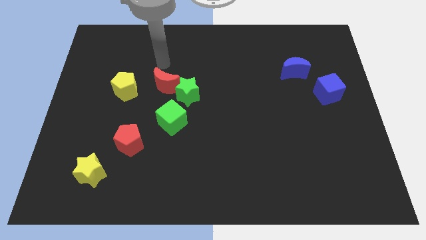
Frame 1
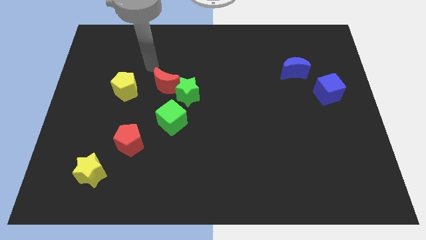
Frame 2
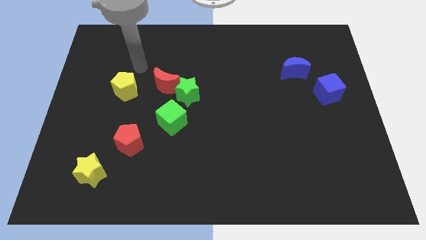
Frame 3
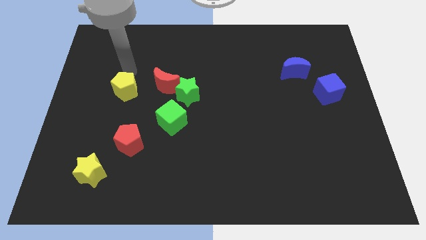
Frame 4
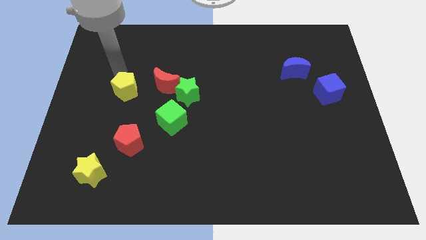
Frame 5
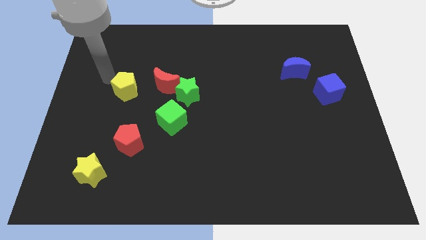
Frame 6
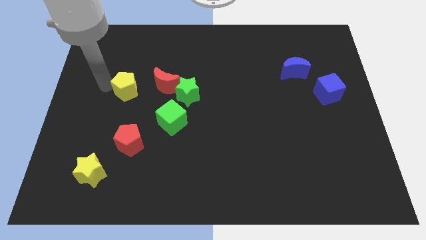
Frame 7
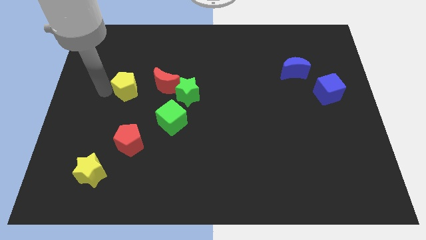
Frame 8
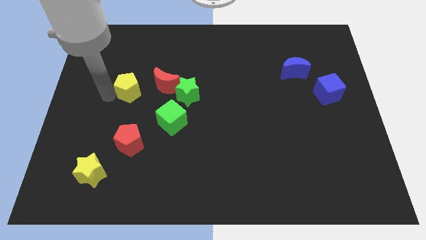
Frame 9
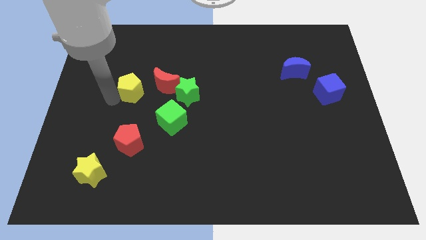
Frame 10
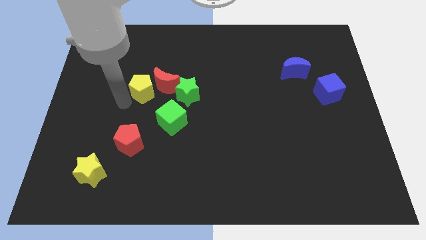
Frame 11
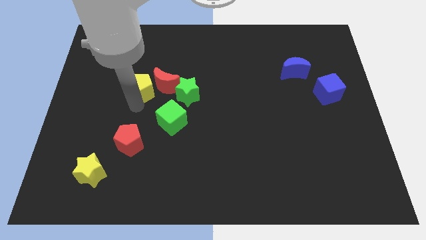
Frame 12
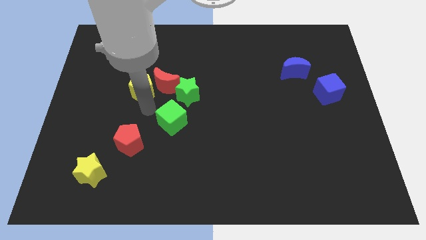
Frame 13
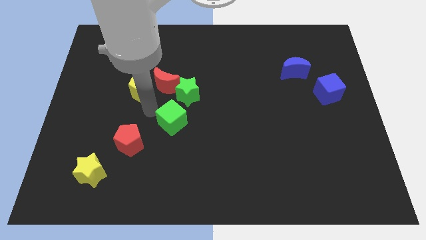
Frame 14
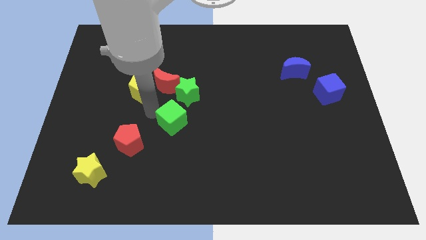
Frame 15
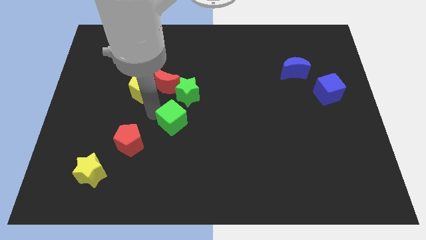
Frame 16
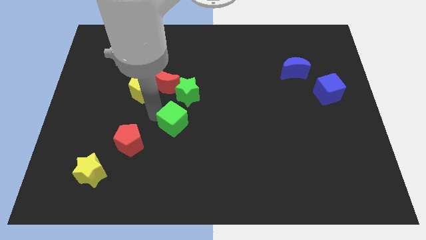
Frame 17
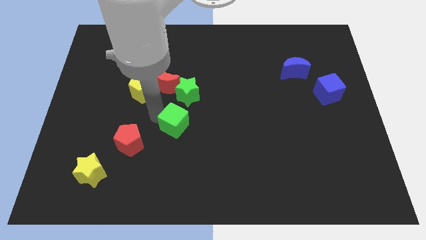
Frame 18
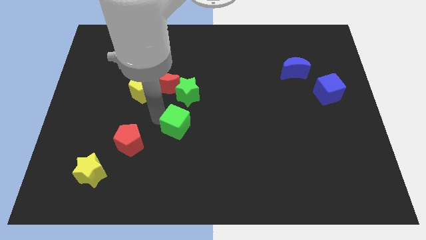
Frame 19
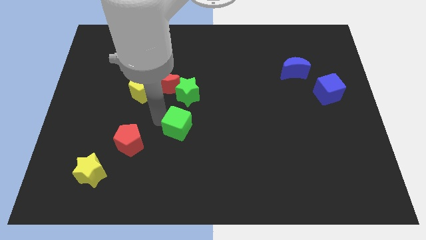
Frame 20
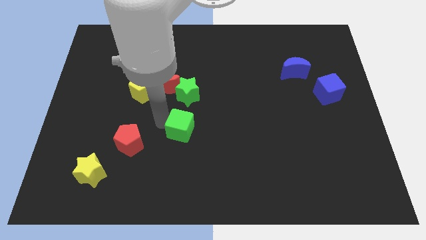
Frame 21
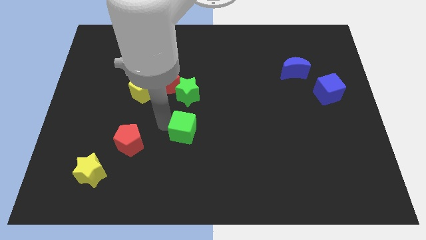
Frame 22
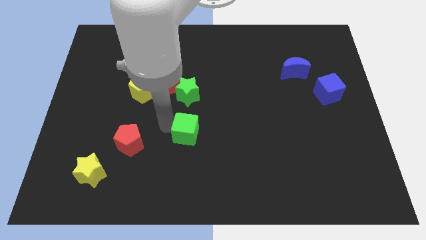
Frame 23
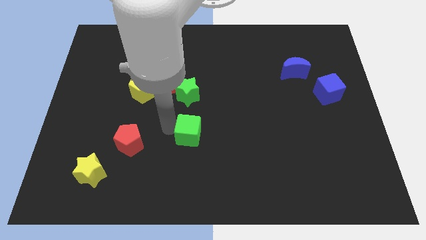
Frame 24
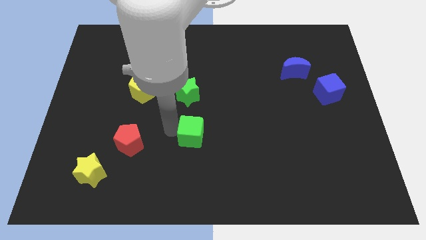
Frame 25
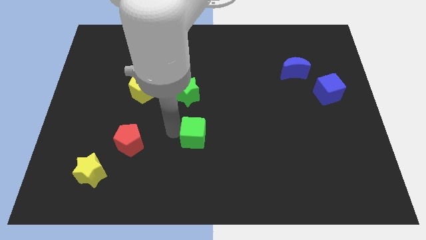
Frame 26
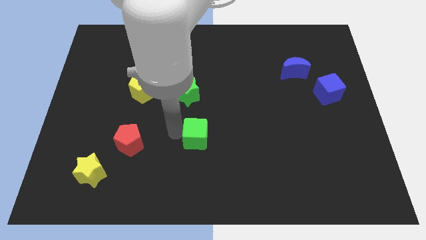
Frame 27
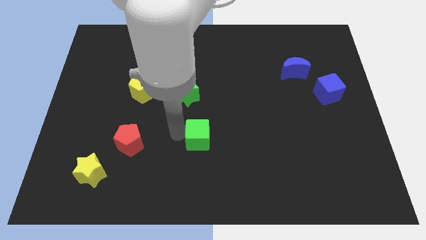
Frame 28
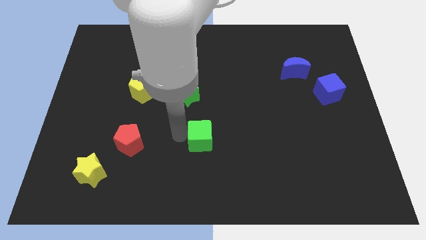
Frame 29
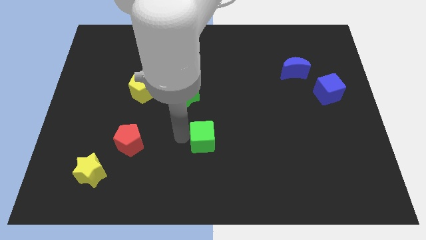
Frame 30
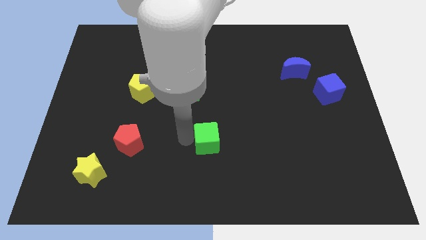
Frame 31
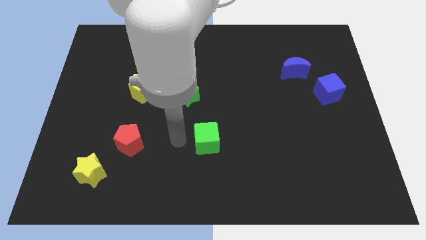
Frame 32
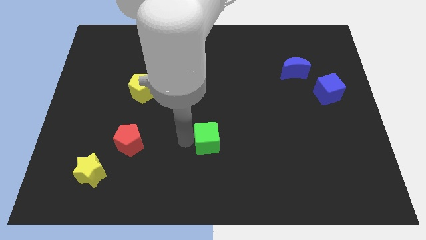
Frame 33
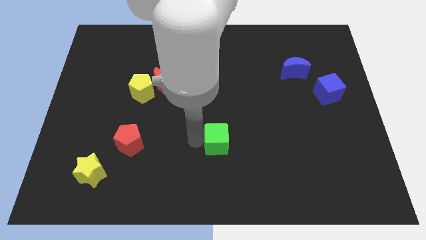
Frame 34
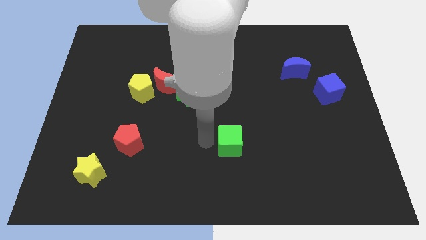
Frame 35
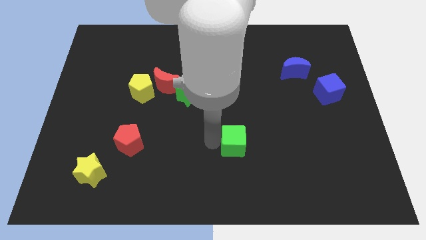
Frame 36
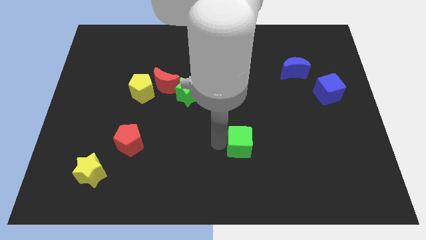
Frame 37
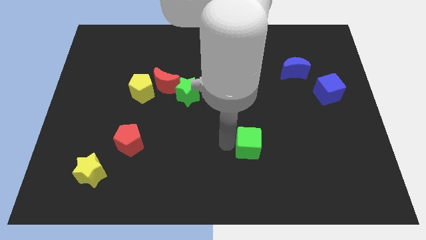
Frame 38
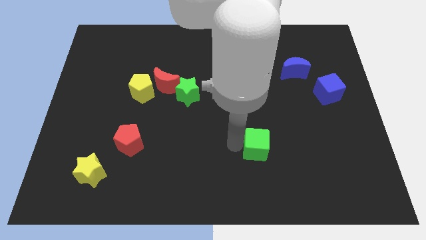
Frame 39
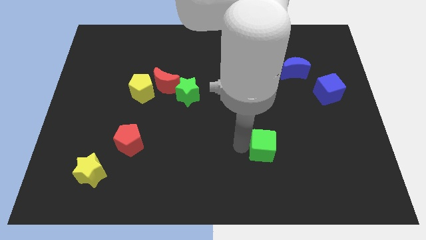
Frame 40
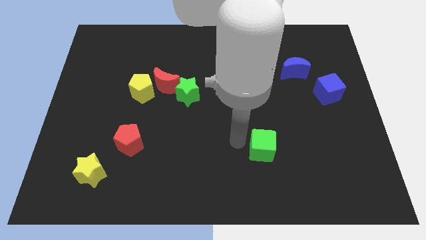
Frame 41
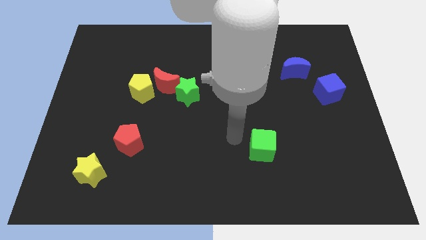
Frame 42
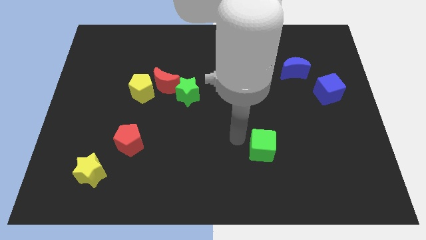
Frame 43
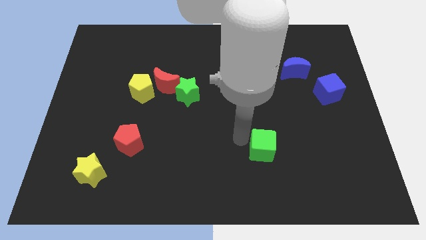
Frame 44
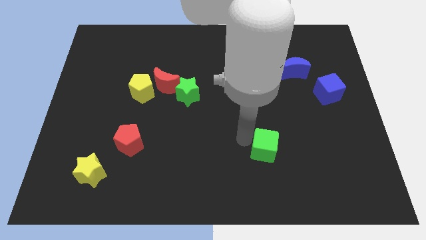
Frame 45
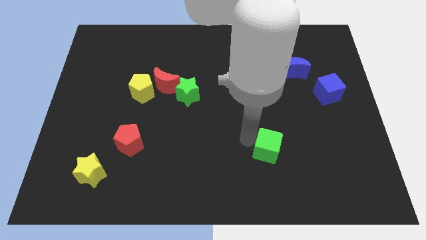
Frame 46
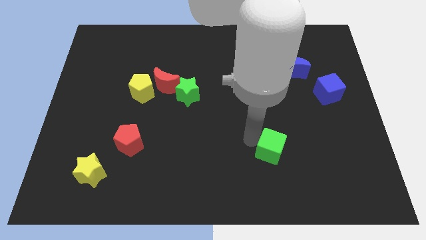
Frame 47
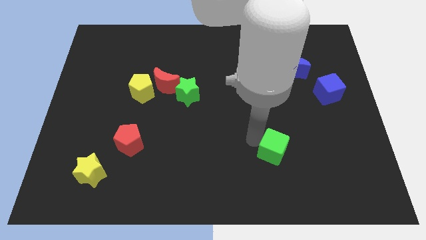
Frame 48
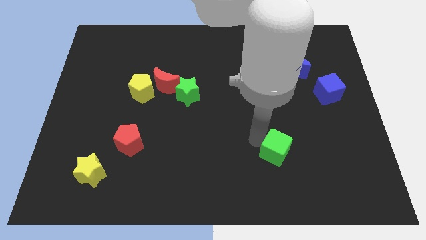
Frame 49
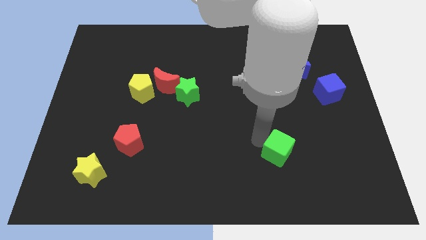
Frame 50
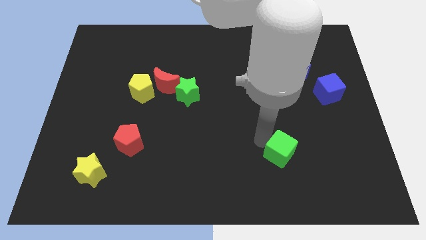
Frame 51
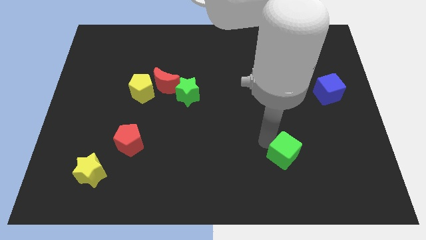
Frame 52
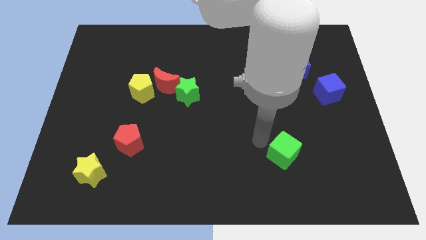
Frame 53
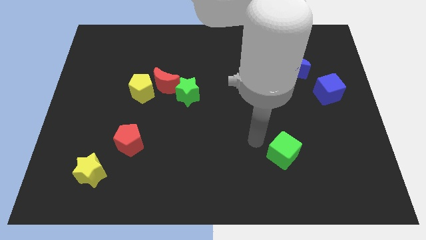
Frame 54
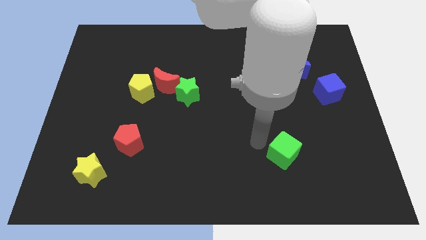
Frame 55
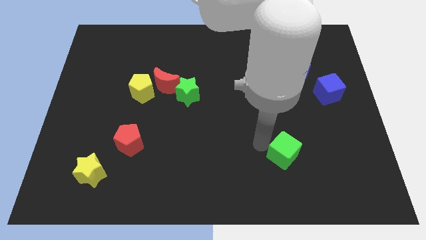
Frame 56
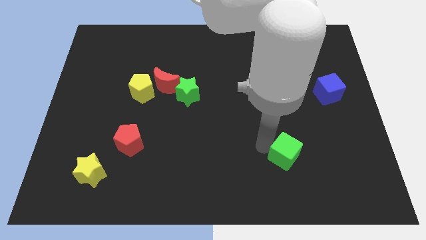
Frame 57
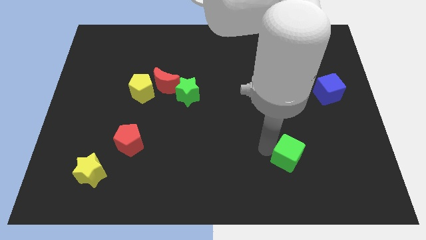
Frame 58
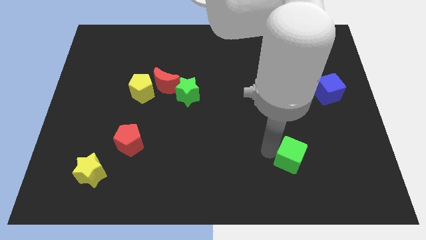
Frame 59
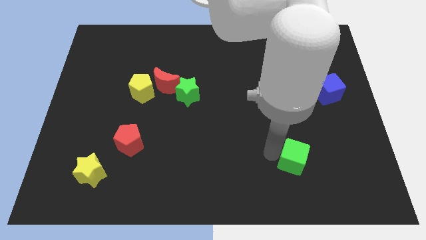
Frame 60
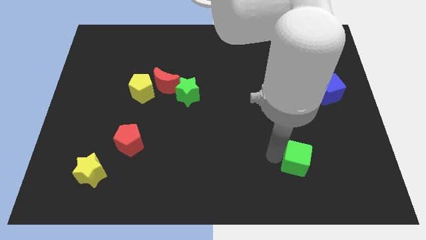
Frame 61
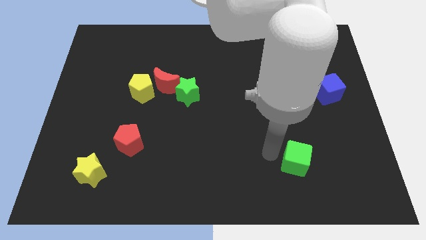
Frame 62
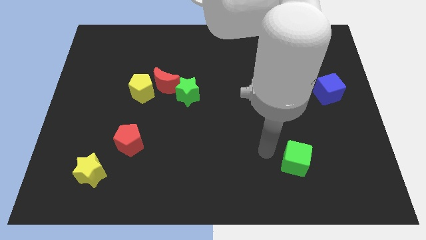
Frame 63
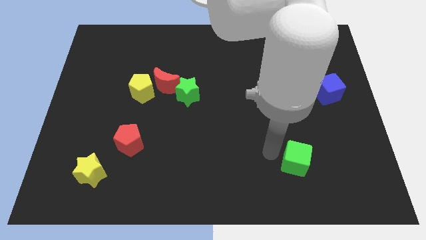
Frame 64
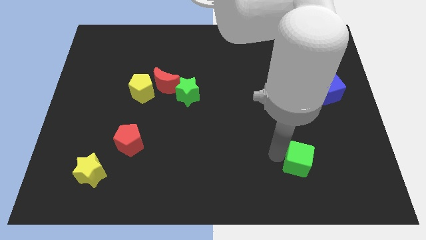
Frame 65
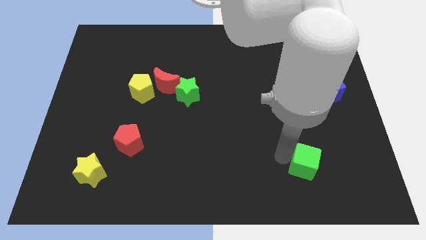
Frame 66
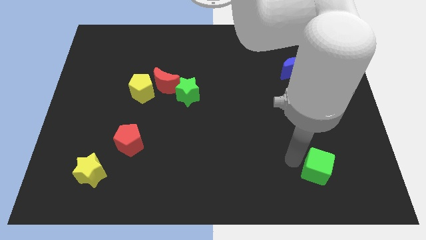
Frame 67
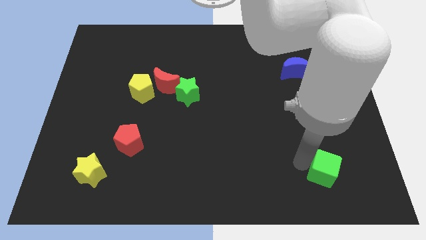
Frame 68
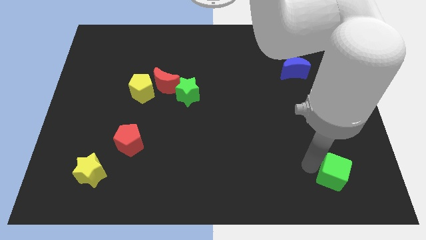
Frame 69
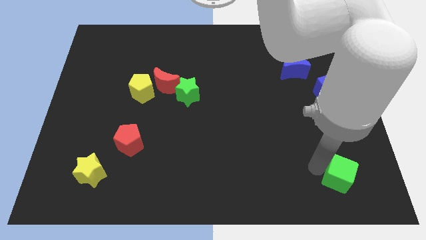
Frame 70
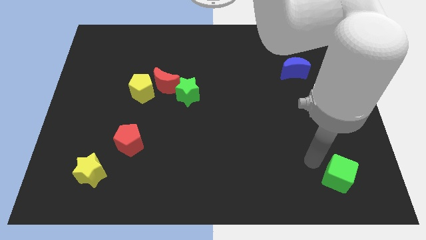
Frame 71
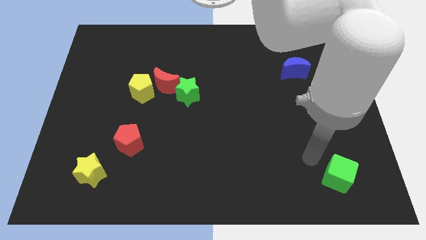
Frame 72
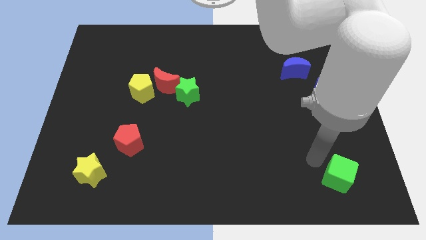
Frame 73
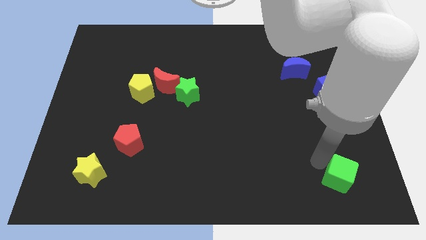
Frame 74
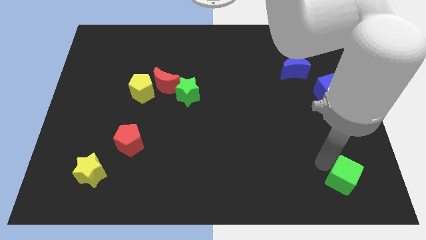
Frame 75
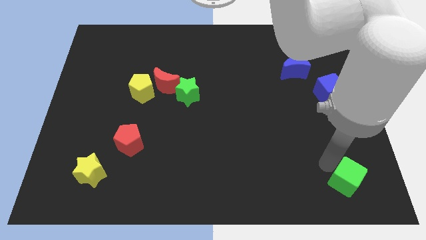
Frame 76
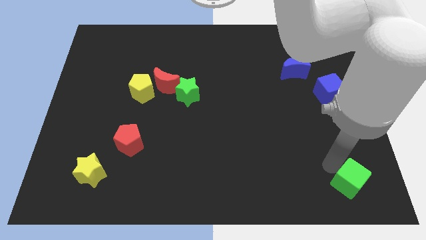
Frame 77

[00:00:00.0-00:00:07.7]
push the green cube to the bottom right
